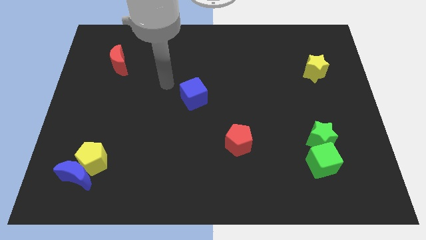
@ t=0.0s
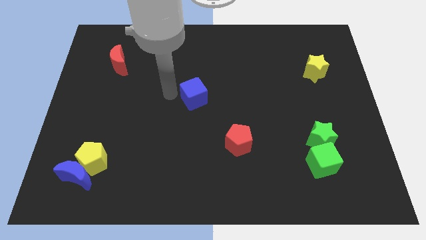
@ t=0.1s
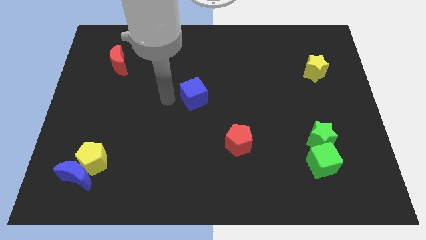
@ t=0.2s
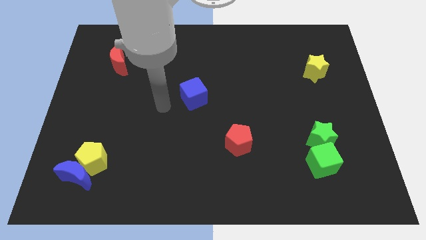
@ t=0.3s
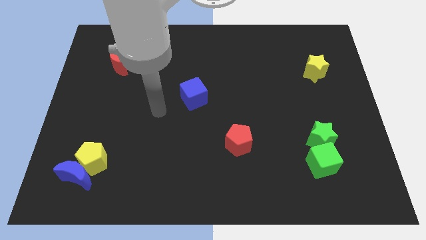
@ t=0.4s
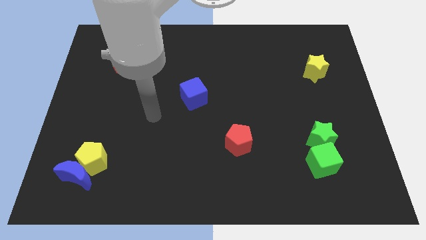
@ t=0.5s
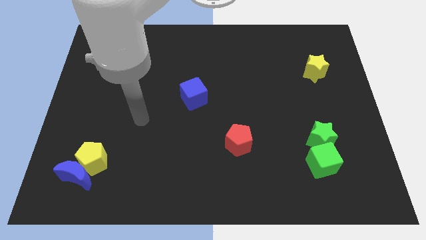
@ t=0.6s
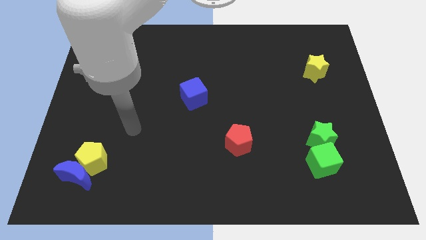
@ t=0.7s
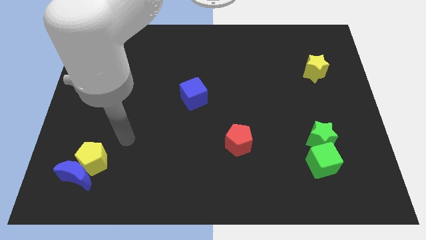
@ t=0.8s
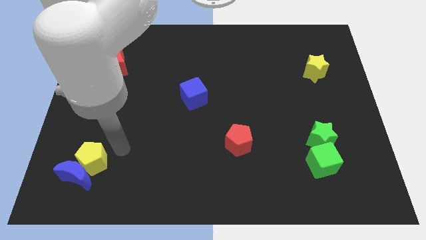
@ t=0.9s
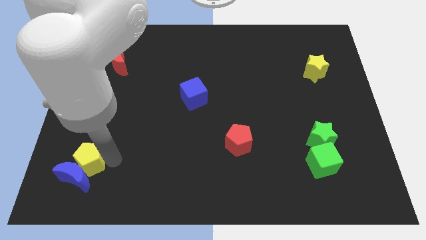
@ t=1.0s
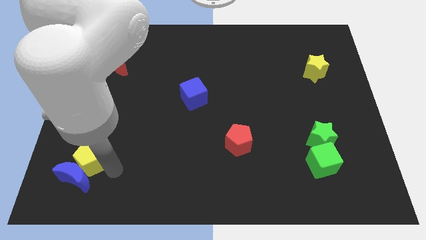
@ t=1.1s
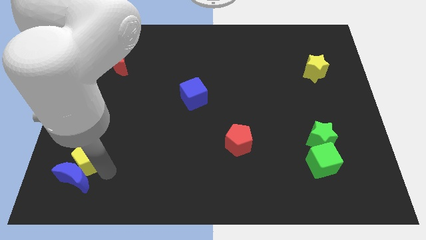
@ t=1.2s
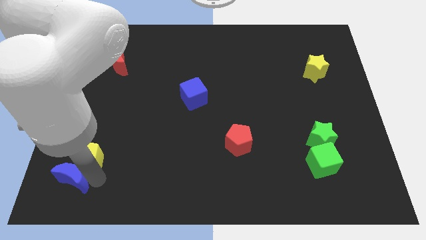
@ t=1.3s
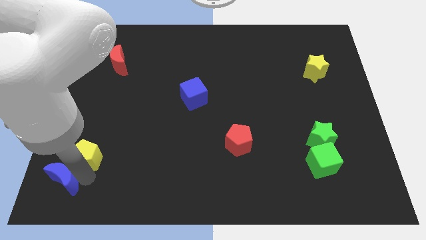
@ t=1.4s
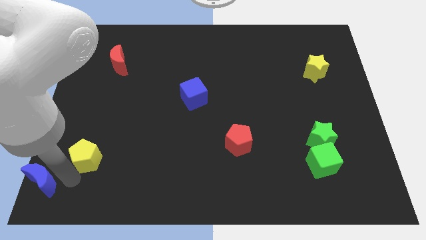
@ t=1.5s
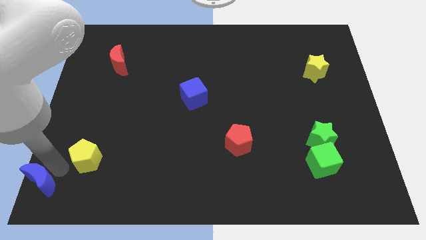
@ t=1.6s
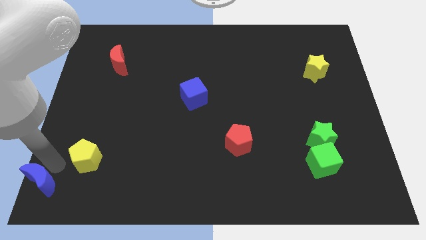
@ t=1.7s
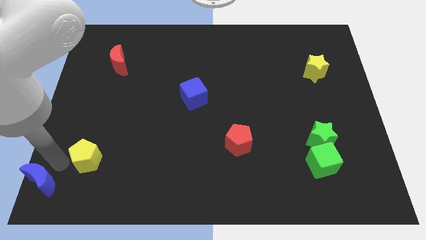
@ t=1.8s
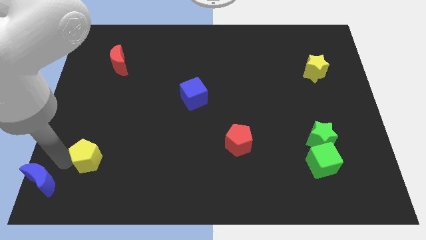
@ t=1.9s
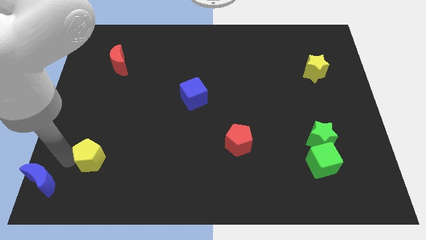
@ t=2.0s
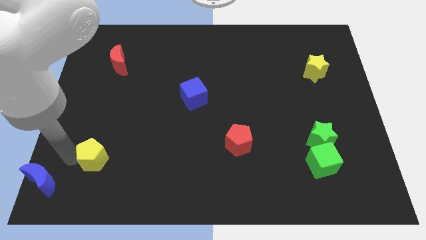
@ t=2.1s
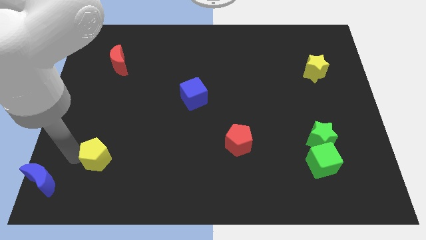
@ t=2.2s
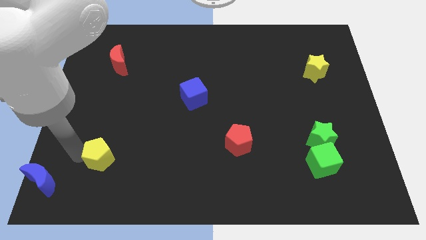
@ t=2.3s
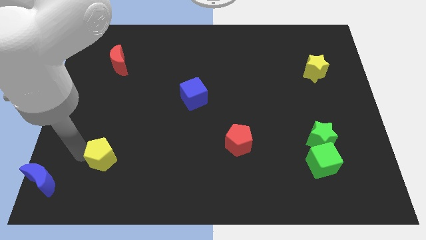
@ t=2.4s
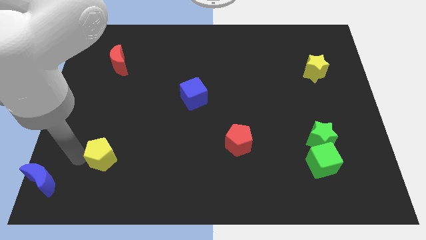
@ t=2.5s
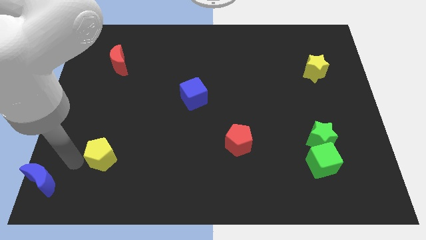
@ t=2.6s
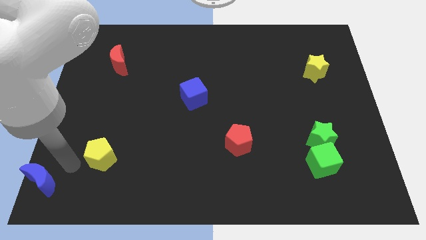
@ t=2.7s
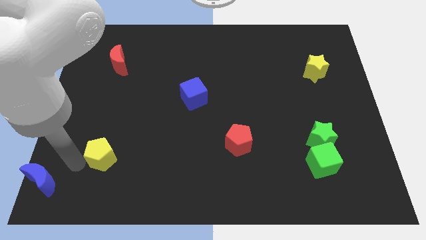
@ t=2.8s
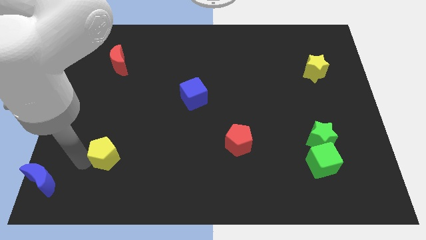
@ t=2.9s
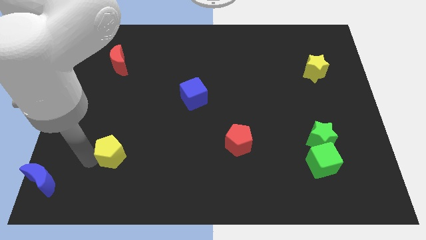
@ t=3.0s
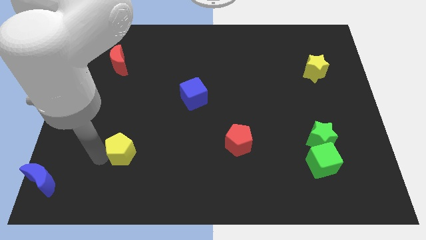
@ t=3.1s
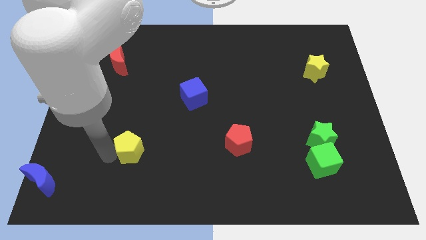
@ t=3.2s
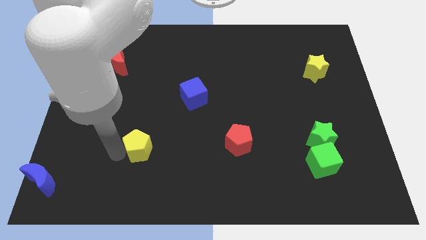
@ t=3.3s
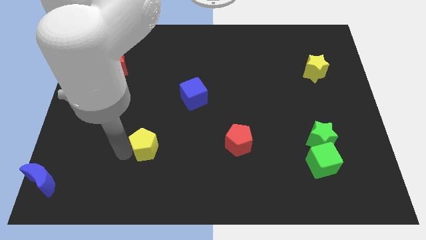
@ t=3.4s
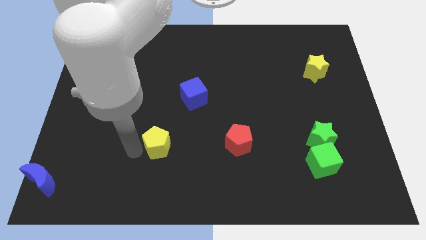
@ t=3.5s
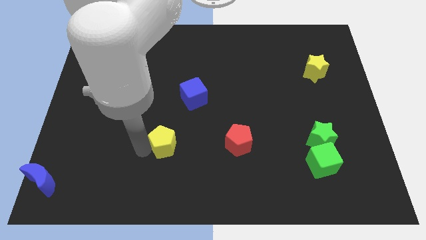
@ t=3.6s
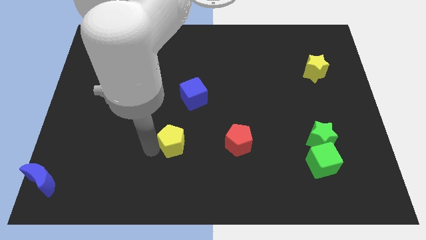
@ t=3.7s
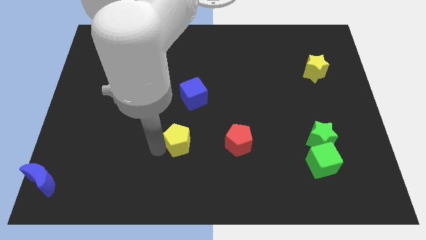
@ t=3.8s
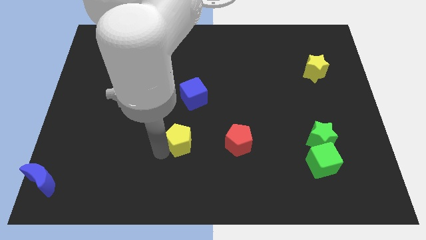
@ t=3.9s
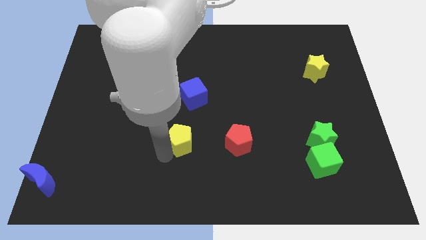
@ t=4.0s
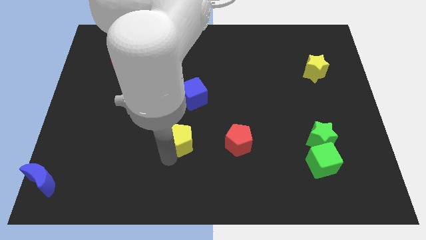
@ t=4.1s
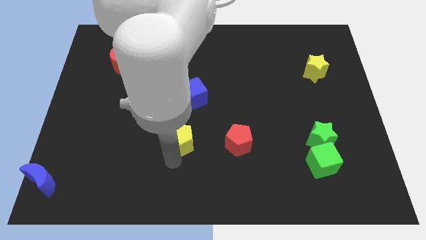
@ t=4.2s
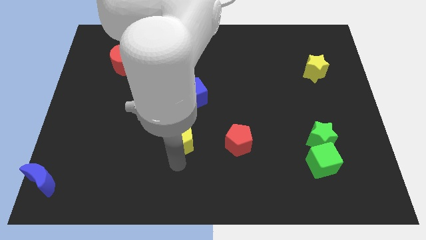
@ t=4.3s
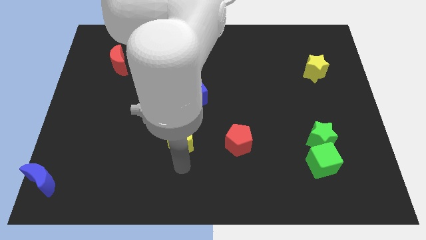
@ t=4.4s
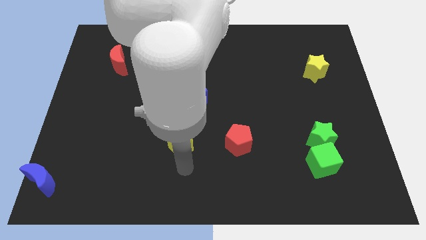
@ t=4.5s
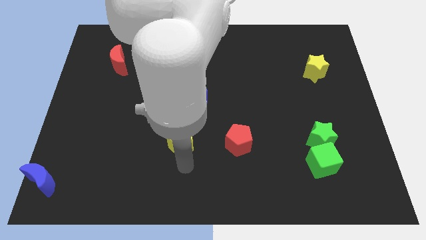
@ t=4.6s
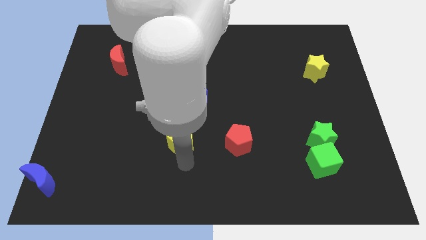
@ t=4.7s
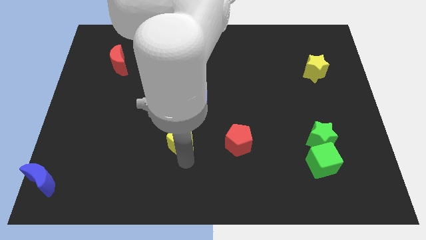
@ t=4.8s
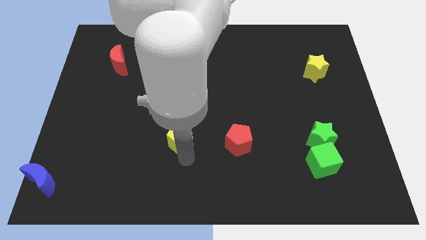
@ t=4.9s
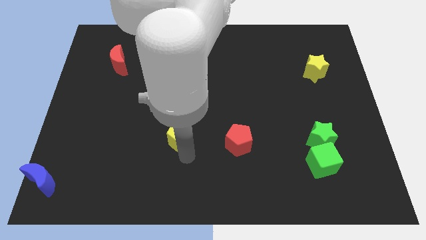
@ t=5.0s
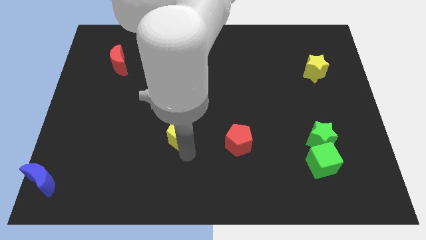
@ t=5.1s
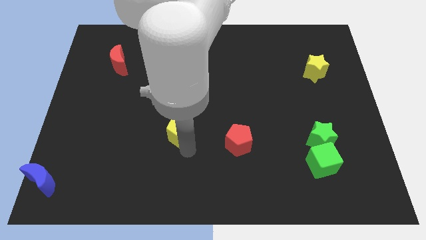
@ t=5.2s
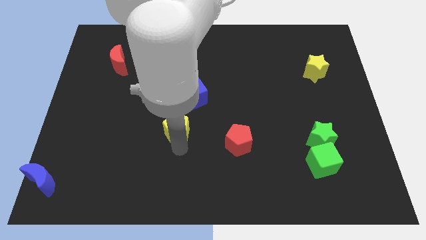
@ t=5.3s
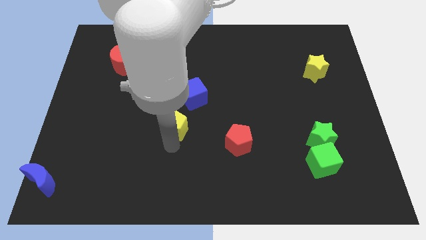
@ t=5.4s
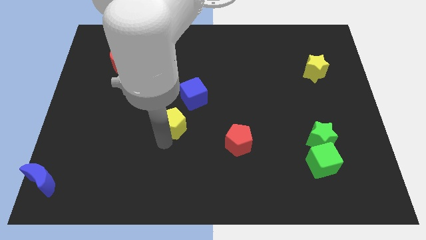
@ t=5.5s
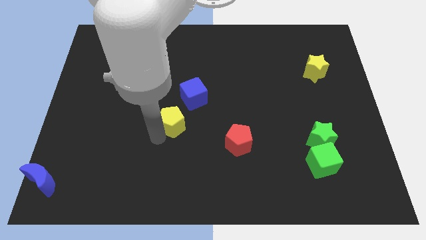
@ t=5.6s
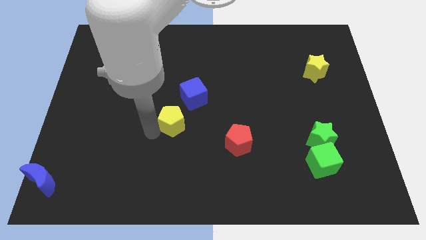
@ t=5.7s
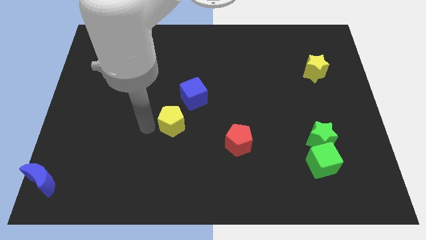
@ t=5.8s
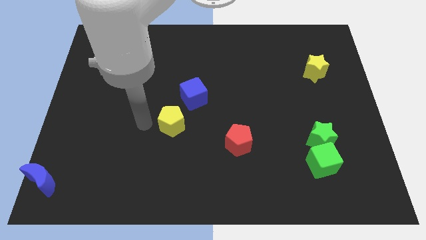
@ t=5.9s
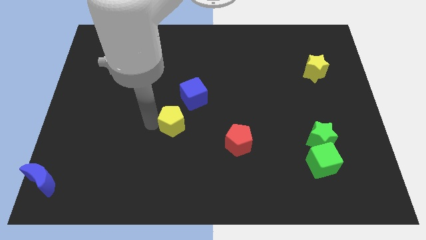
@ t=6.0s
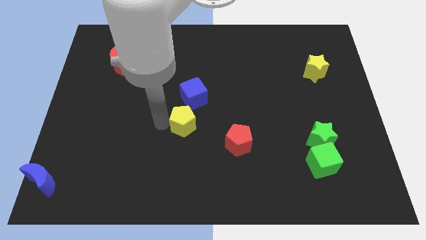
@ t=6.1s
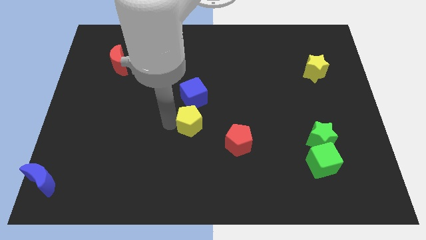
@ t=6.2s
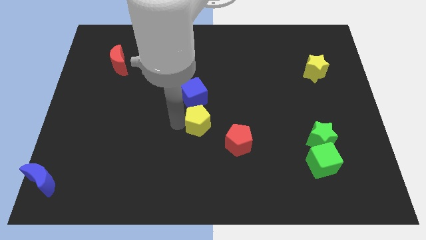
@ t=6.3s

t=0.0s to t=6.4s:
push the yellow pentagon to the top left side of the red pentagon

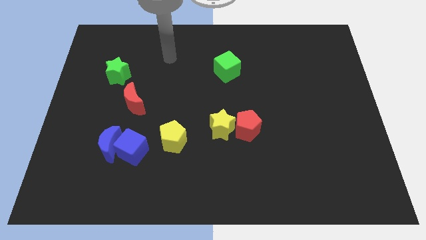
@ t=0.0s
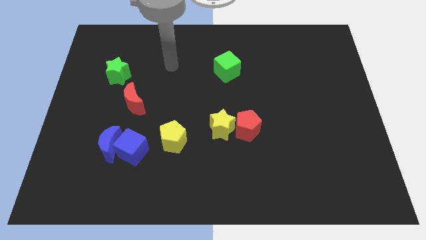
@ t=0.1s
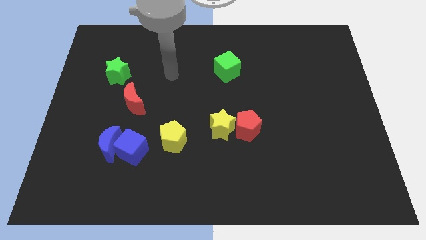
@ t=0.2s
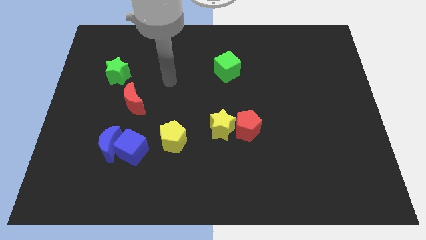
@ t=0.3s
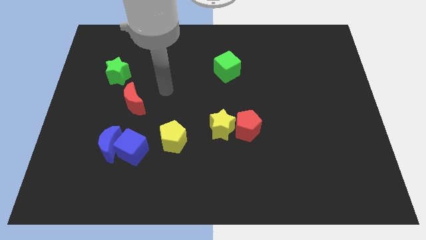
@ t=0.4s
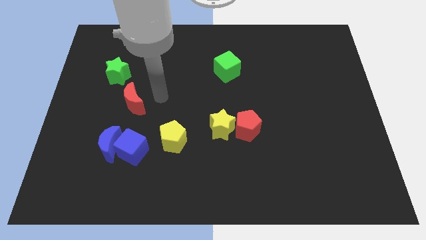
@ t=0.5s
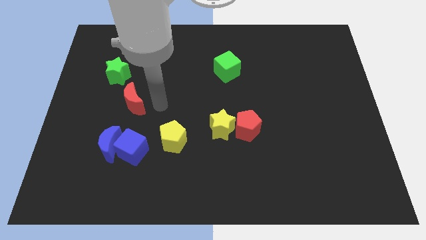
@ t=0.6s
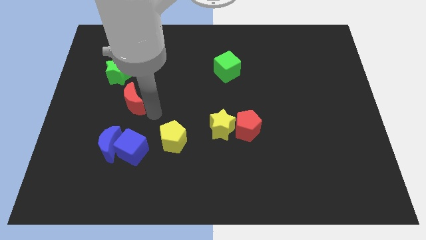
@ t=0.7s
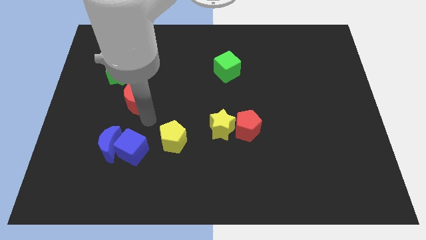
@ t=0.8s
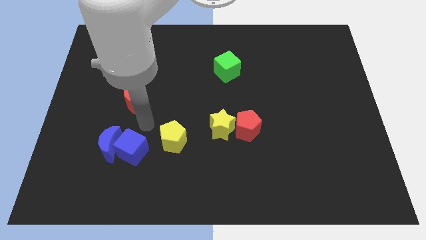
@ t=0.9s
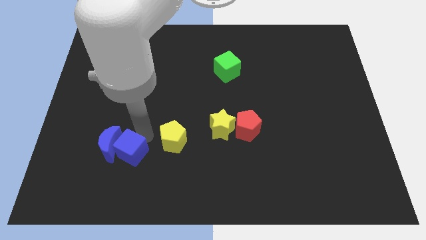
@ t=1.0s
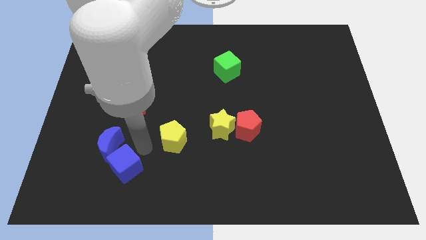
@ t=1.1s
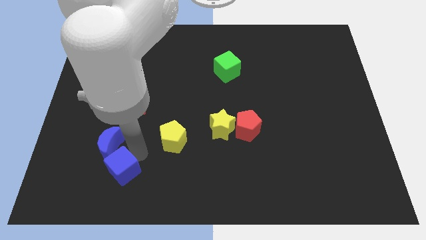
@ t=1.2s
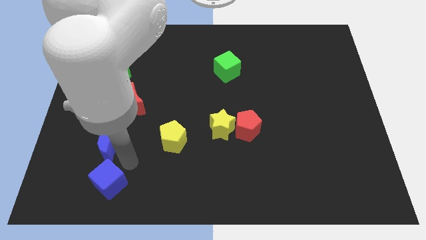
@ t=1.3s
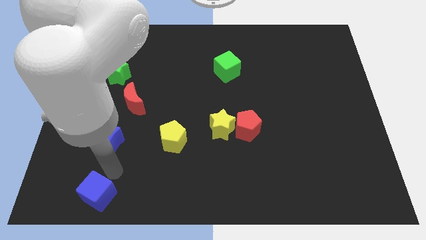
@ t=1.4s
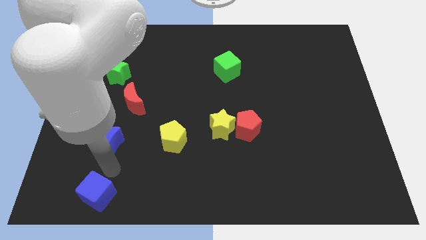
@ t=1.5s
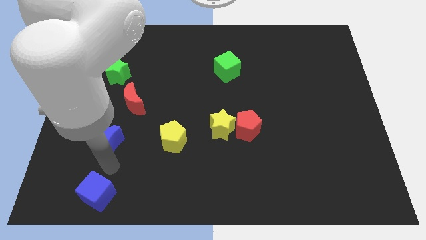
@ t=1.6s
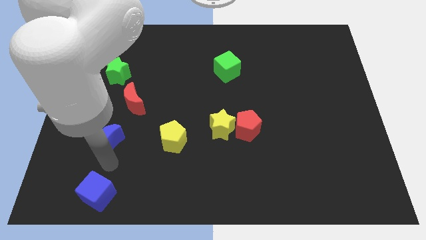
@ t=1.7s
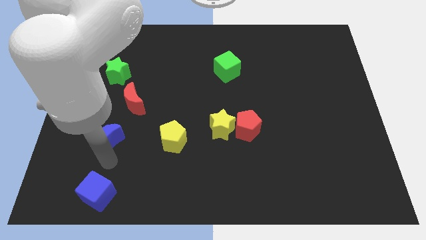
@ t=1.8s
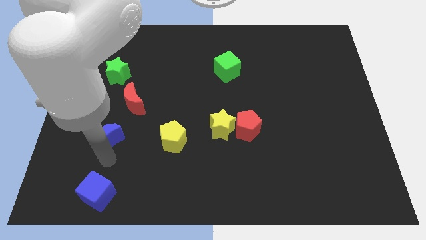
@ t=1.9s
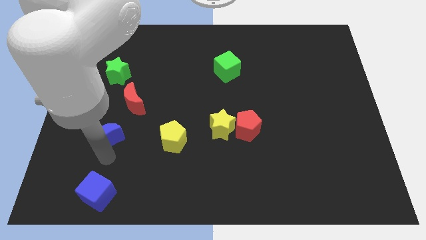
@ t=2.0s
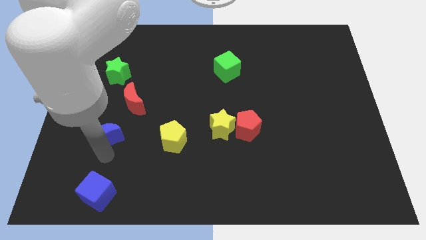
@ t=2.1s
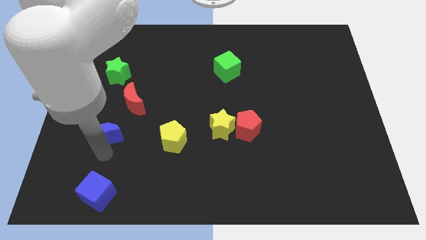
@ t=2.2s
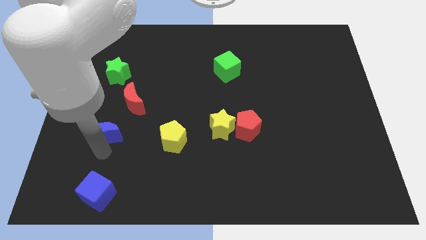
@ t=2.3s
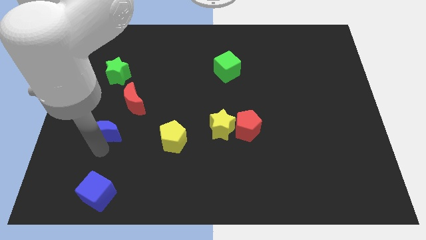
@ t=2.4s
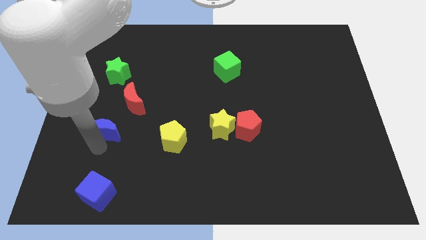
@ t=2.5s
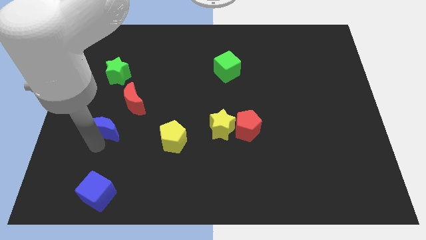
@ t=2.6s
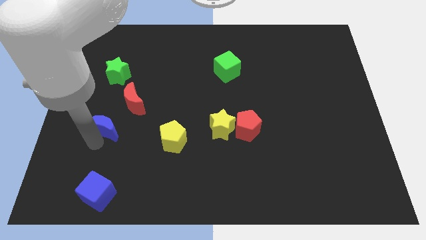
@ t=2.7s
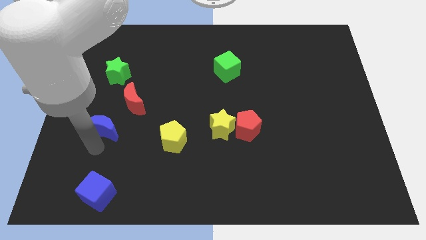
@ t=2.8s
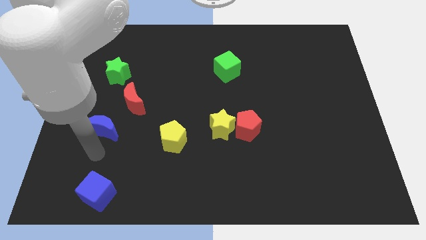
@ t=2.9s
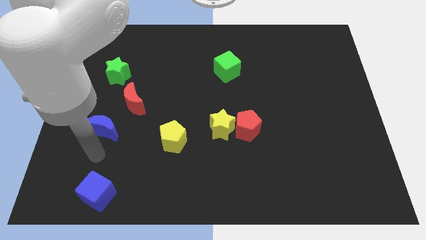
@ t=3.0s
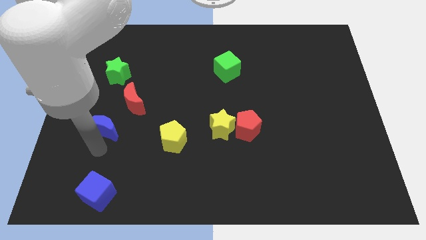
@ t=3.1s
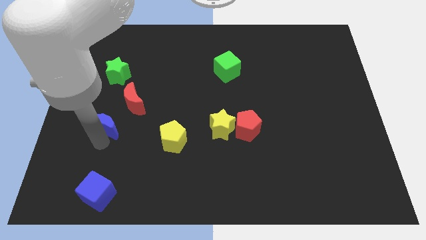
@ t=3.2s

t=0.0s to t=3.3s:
move the blue moon below the green star
